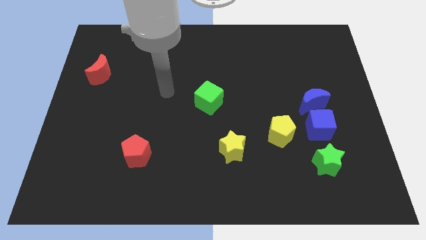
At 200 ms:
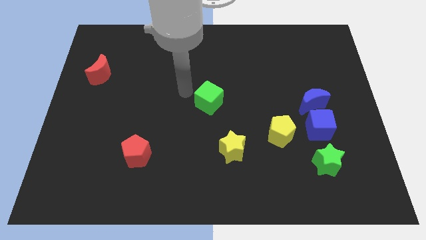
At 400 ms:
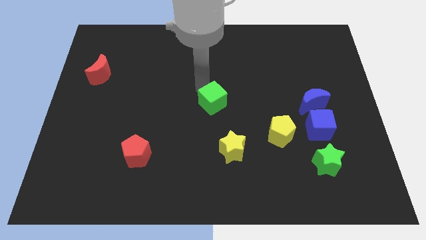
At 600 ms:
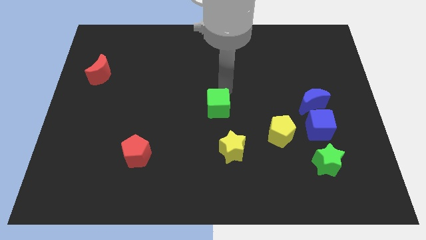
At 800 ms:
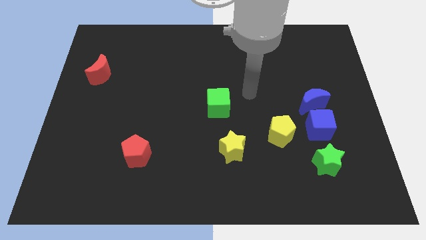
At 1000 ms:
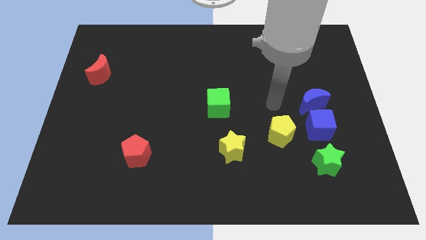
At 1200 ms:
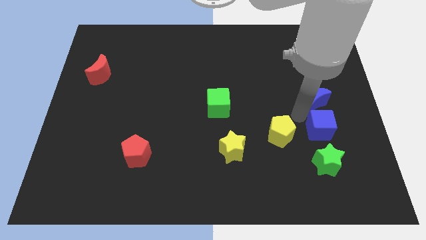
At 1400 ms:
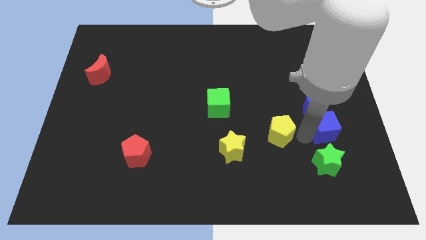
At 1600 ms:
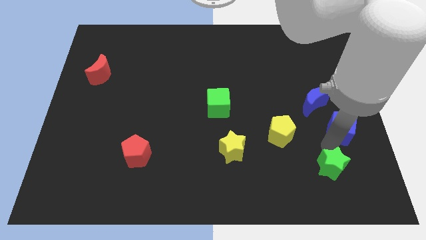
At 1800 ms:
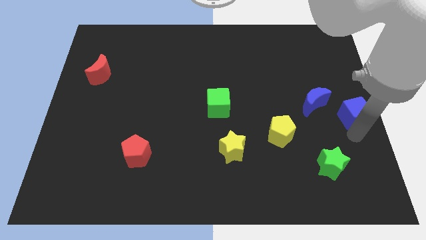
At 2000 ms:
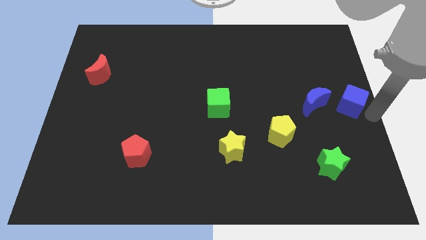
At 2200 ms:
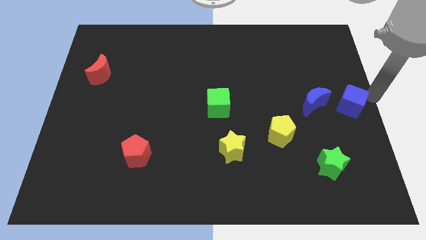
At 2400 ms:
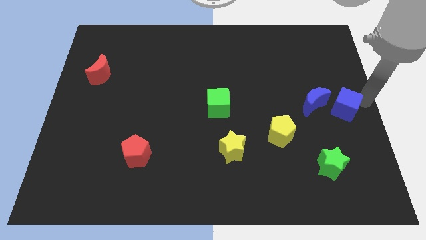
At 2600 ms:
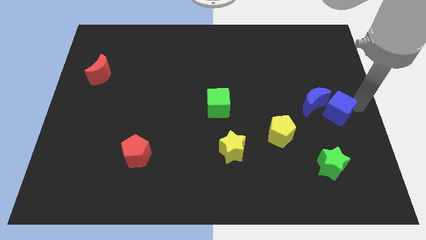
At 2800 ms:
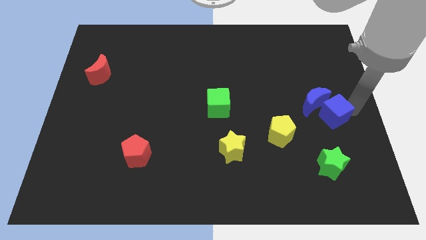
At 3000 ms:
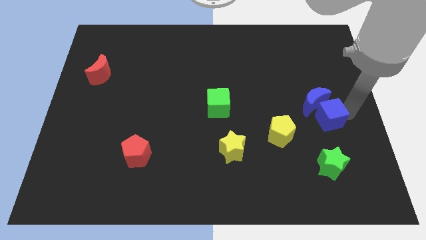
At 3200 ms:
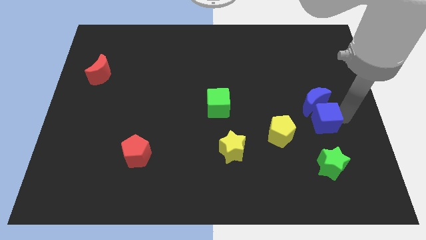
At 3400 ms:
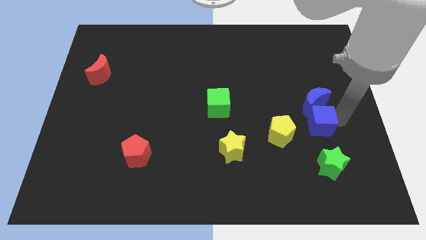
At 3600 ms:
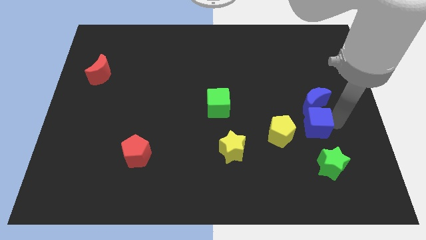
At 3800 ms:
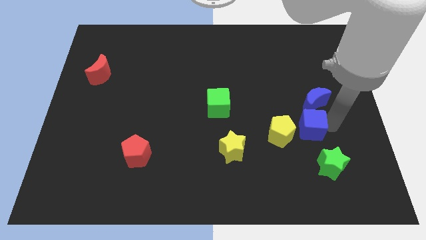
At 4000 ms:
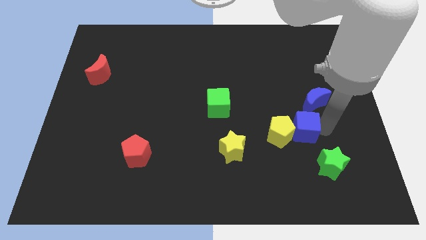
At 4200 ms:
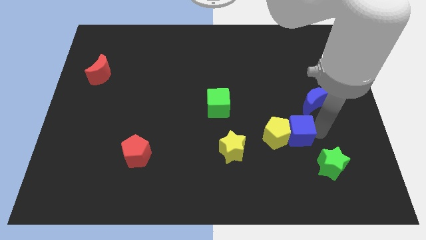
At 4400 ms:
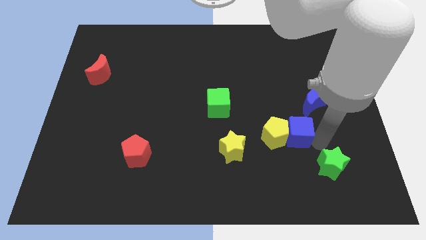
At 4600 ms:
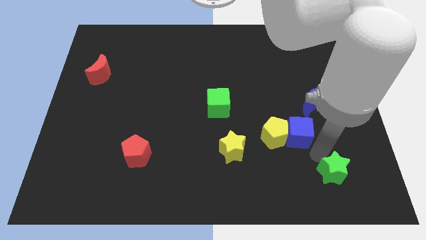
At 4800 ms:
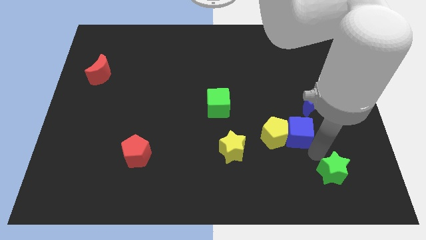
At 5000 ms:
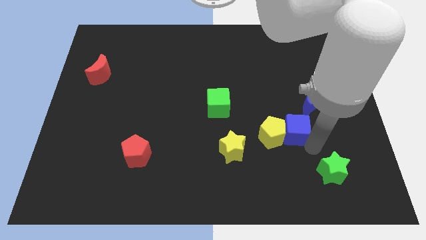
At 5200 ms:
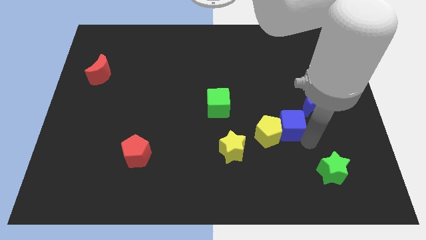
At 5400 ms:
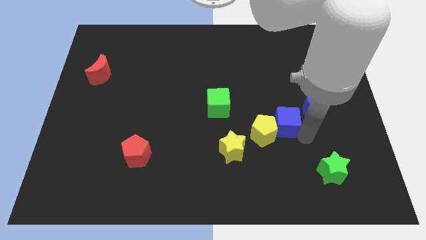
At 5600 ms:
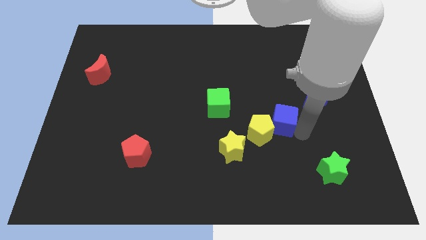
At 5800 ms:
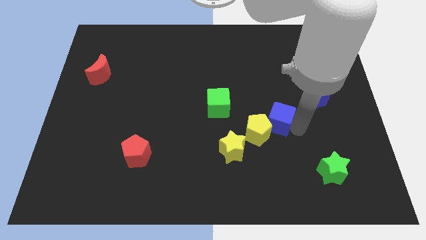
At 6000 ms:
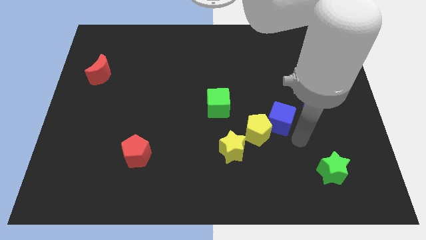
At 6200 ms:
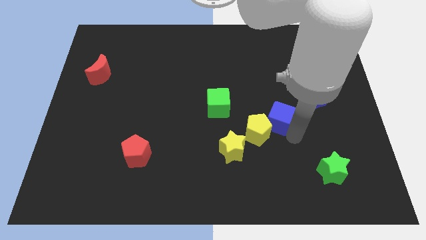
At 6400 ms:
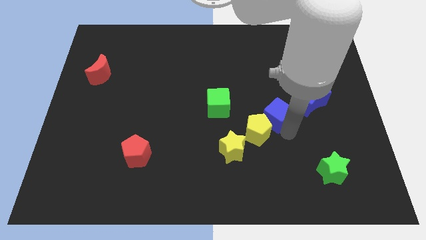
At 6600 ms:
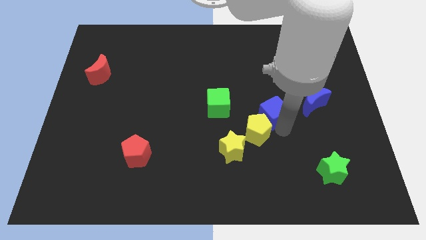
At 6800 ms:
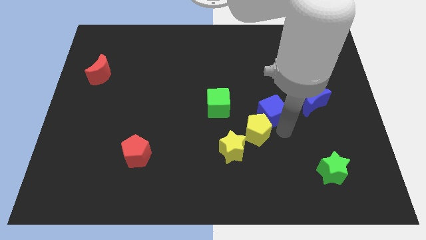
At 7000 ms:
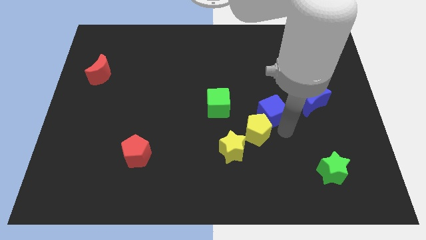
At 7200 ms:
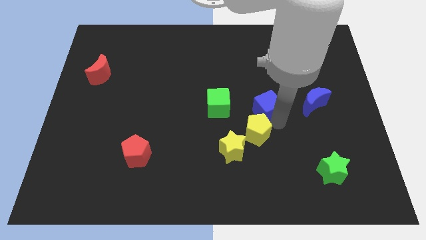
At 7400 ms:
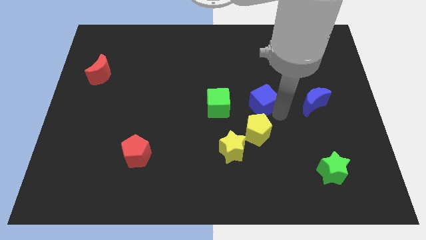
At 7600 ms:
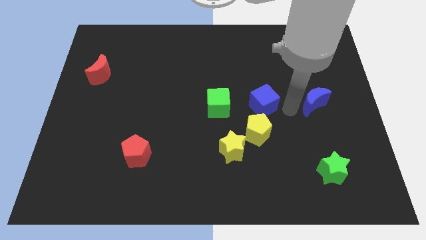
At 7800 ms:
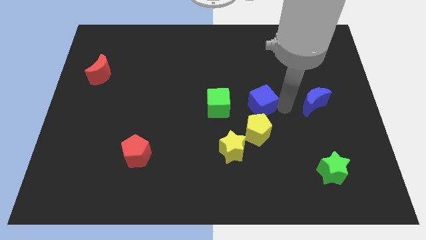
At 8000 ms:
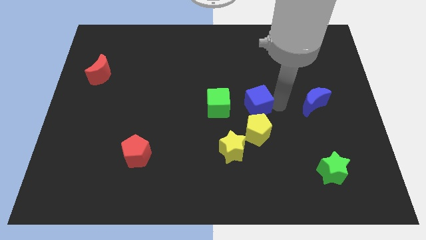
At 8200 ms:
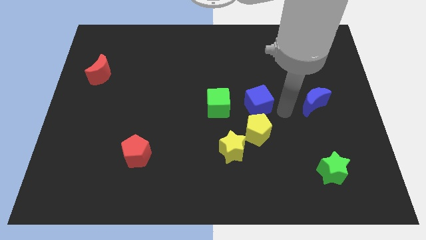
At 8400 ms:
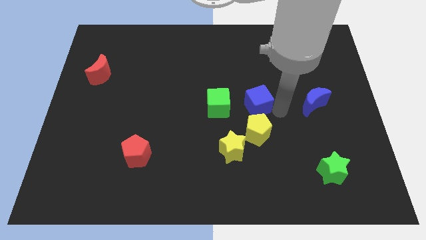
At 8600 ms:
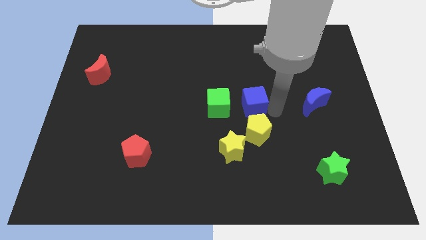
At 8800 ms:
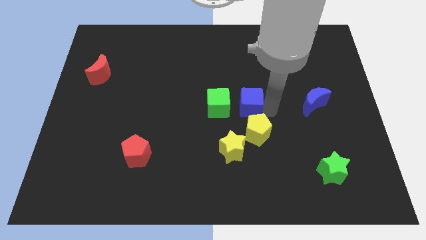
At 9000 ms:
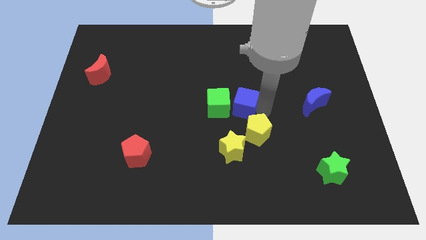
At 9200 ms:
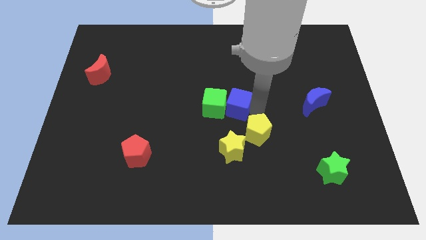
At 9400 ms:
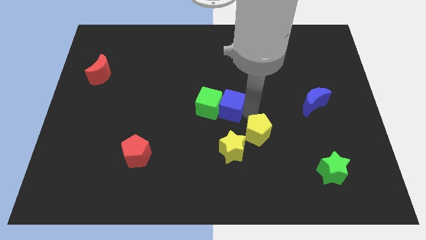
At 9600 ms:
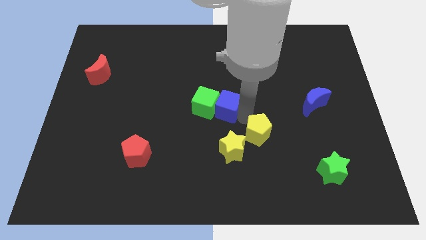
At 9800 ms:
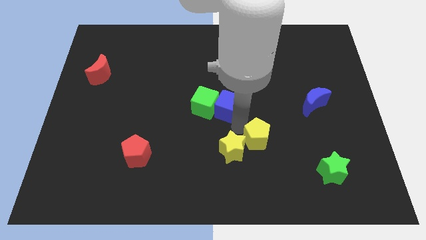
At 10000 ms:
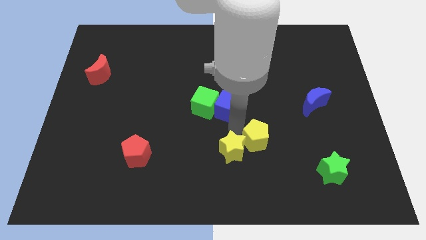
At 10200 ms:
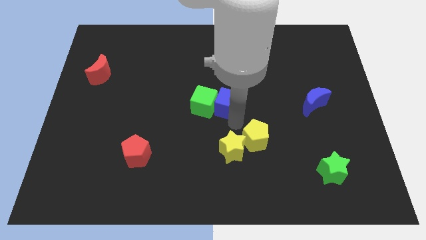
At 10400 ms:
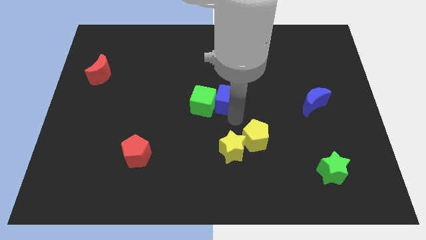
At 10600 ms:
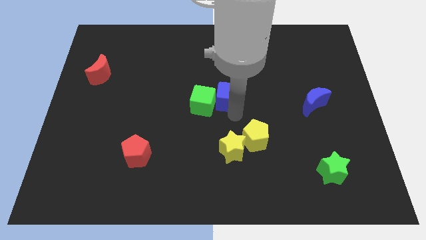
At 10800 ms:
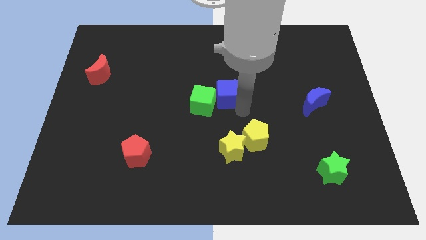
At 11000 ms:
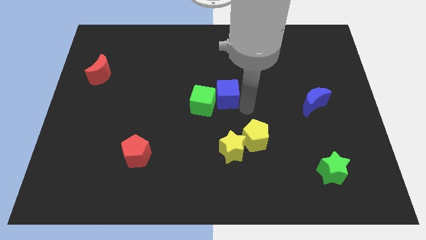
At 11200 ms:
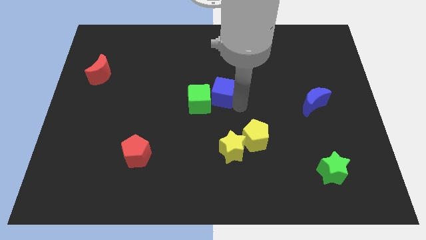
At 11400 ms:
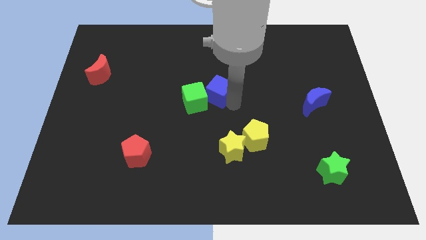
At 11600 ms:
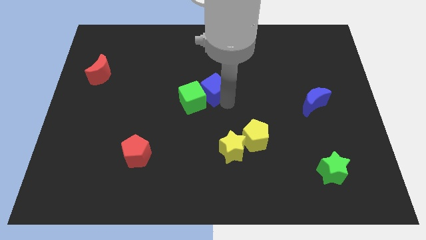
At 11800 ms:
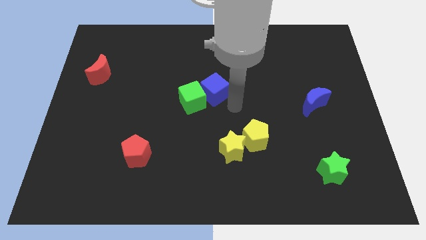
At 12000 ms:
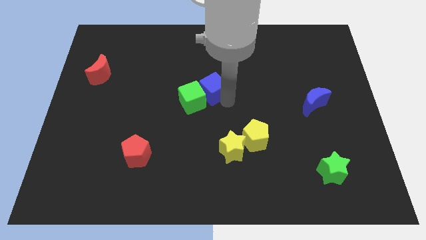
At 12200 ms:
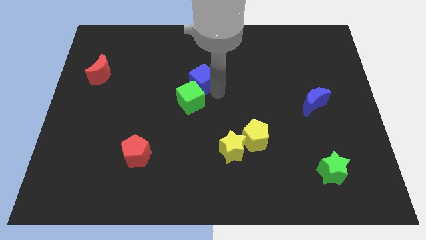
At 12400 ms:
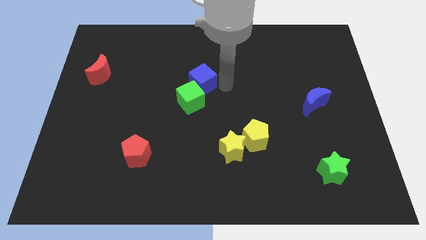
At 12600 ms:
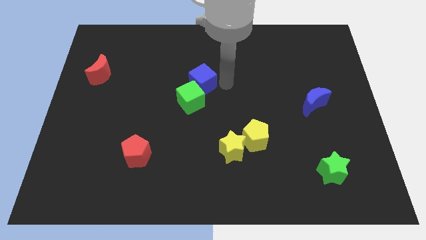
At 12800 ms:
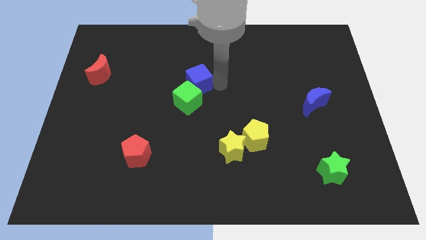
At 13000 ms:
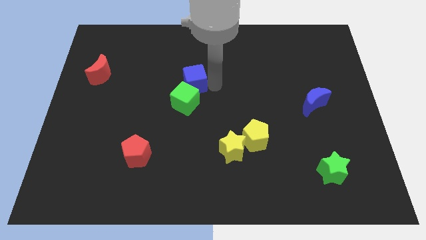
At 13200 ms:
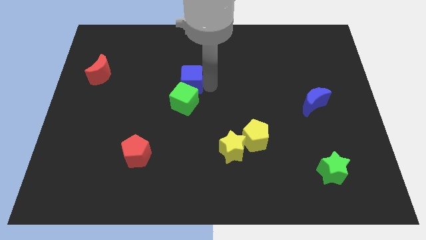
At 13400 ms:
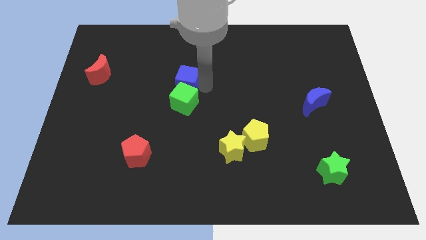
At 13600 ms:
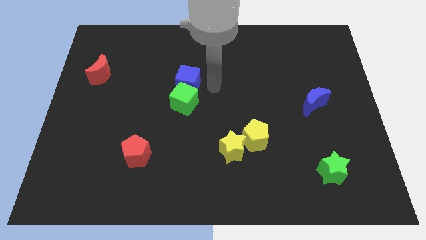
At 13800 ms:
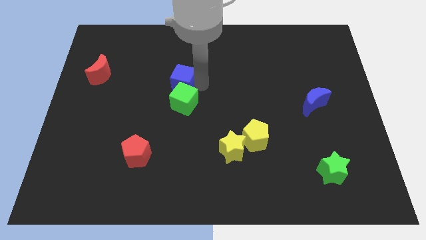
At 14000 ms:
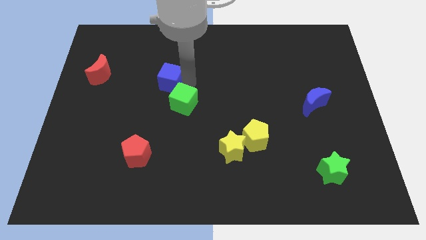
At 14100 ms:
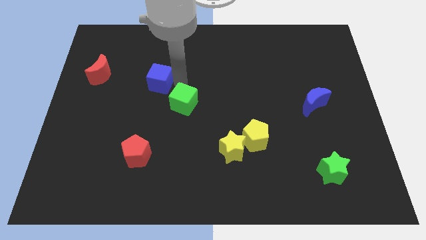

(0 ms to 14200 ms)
move the blue cube right of the red moon
